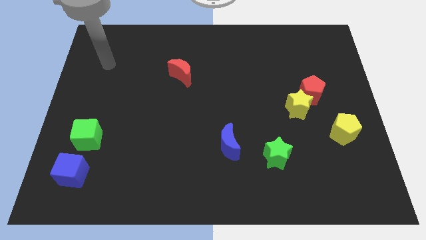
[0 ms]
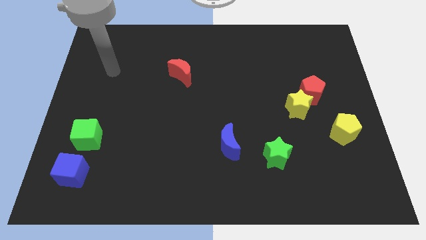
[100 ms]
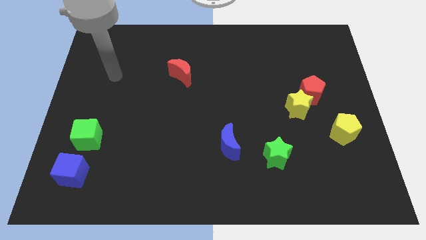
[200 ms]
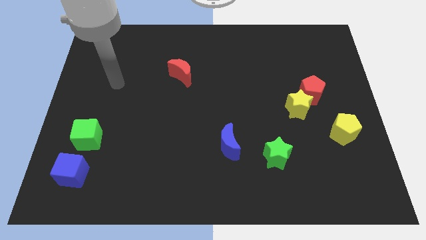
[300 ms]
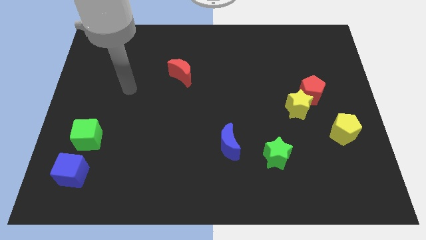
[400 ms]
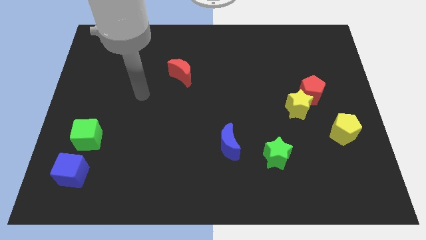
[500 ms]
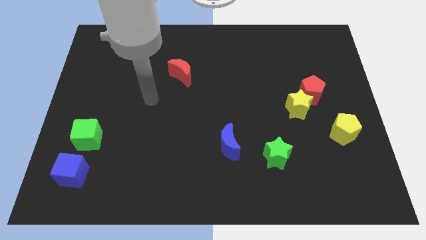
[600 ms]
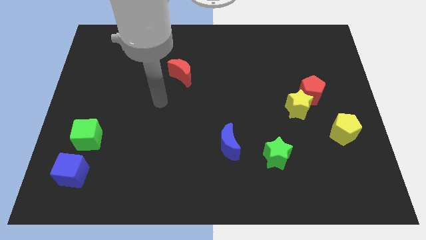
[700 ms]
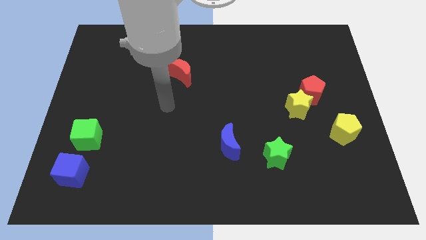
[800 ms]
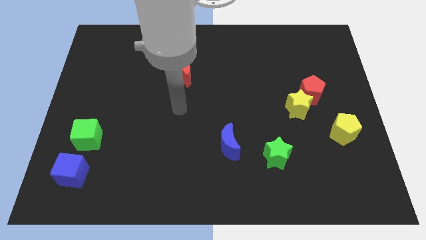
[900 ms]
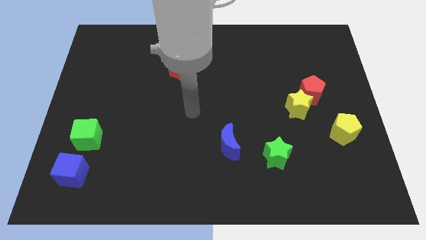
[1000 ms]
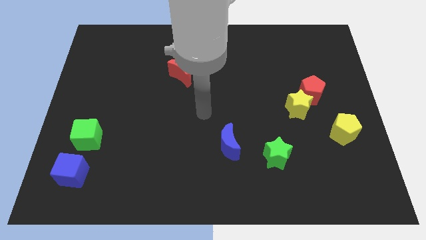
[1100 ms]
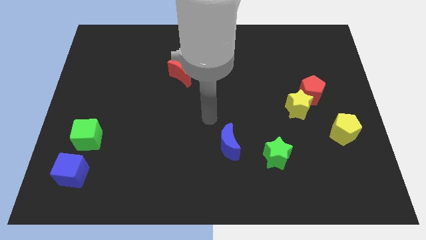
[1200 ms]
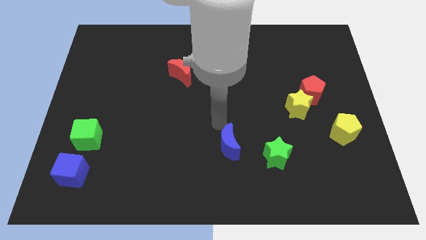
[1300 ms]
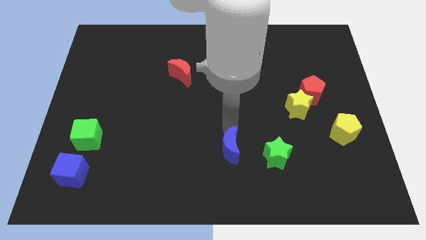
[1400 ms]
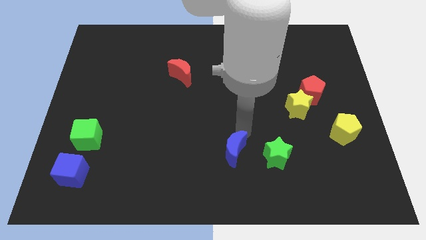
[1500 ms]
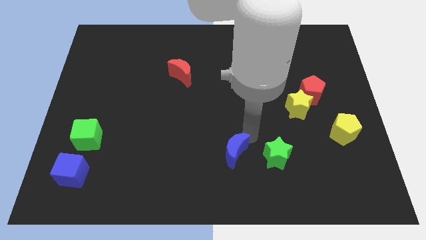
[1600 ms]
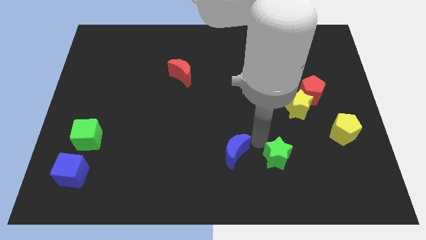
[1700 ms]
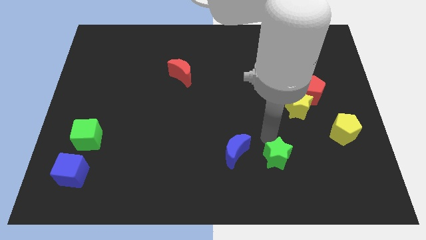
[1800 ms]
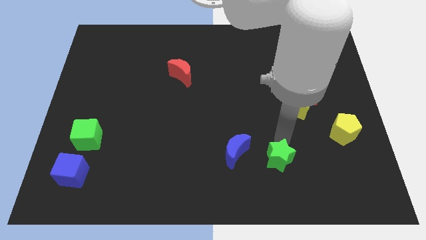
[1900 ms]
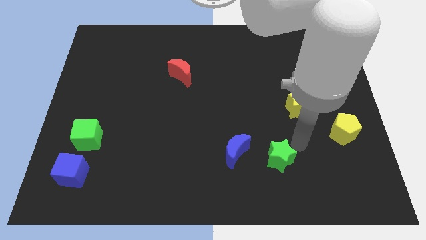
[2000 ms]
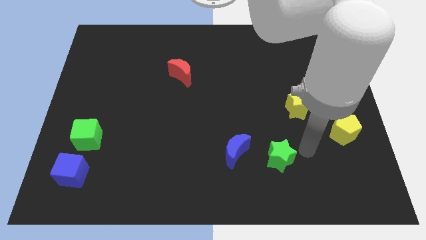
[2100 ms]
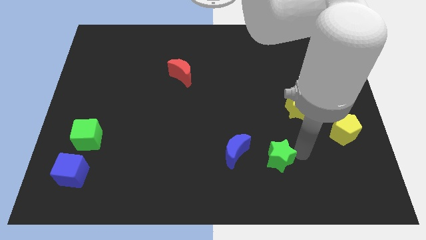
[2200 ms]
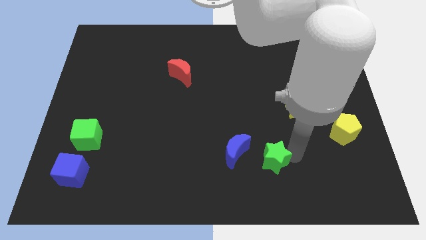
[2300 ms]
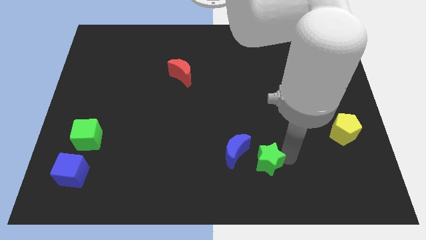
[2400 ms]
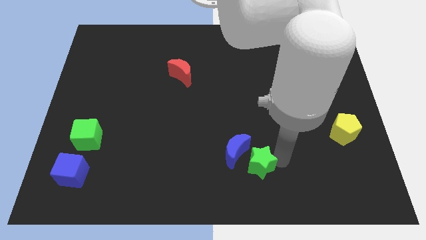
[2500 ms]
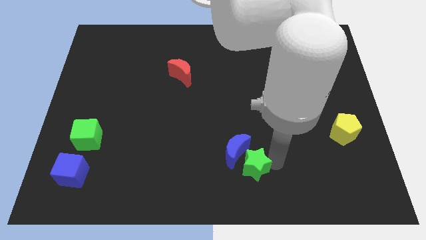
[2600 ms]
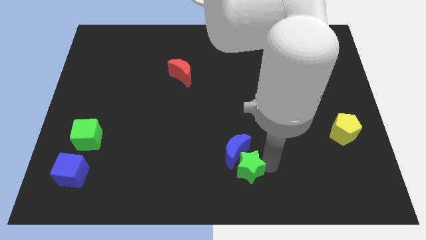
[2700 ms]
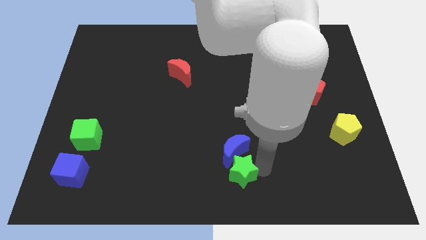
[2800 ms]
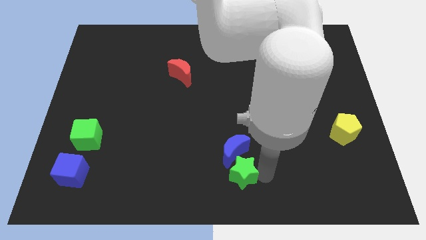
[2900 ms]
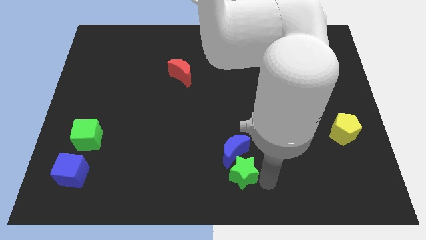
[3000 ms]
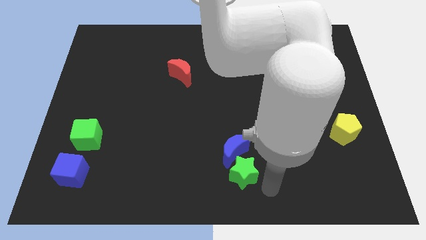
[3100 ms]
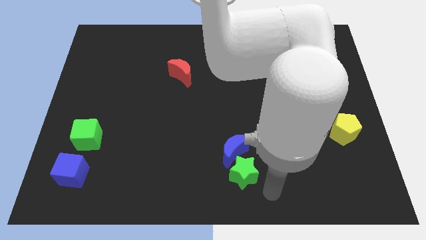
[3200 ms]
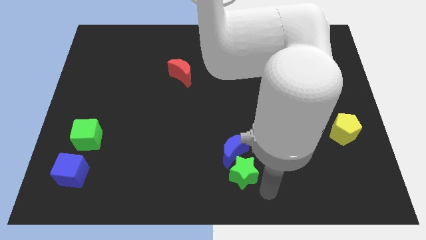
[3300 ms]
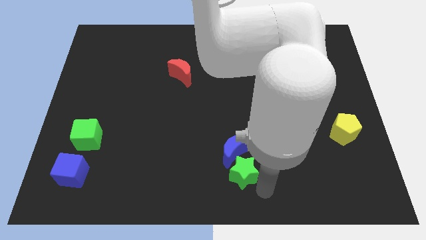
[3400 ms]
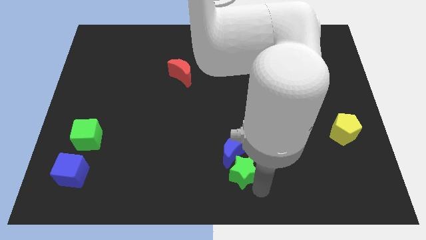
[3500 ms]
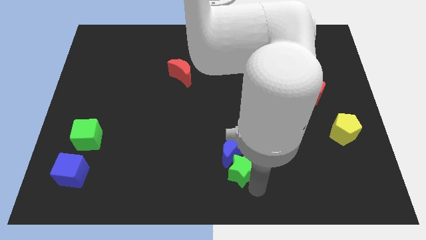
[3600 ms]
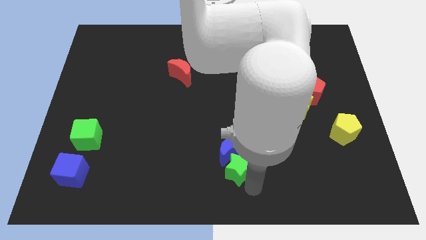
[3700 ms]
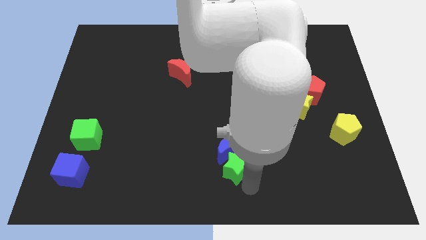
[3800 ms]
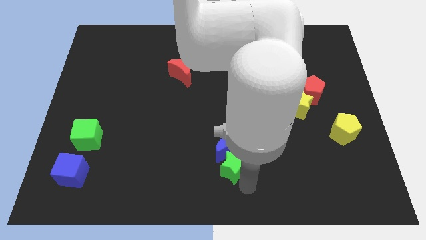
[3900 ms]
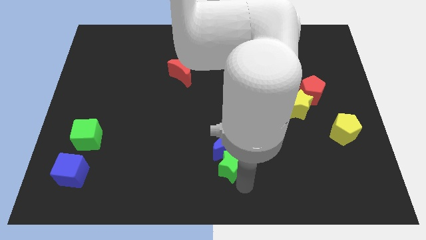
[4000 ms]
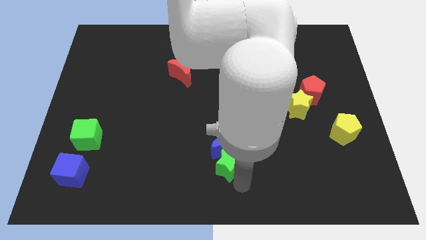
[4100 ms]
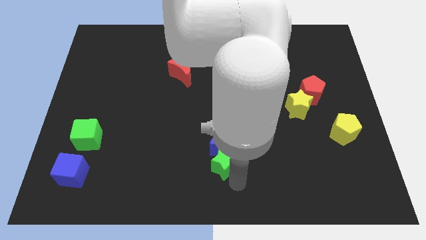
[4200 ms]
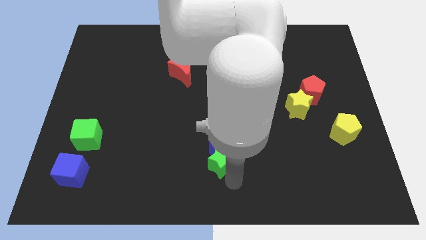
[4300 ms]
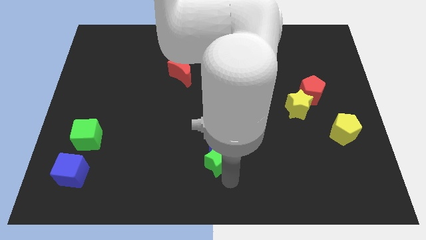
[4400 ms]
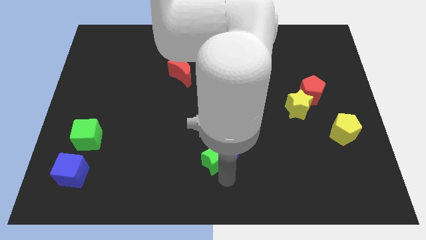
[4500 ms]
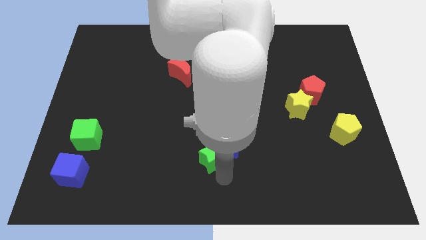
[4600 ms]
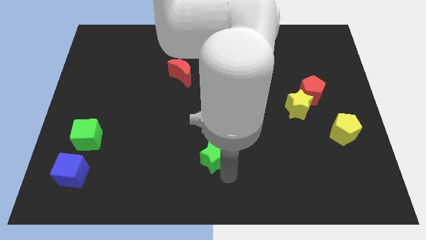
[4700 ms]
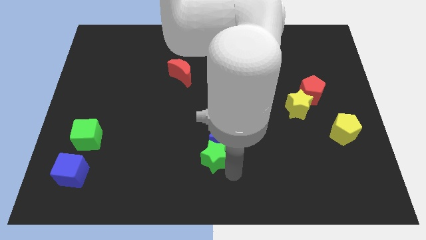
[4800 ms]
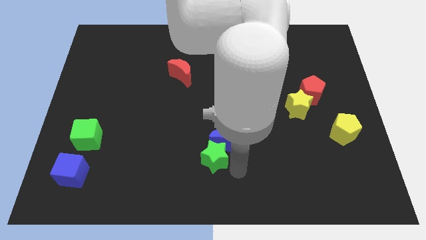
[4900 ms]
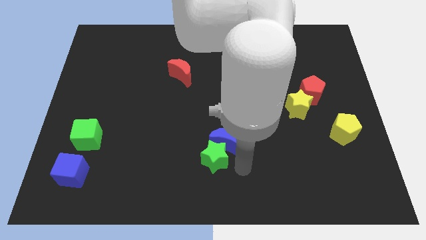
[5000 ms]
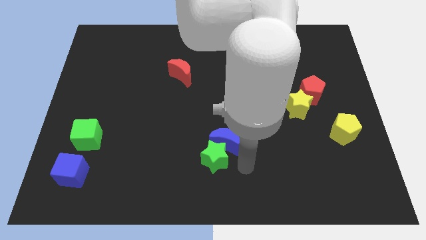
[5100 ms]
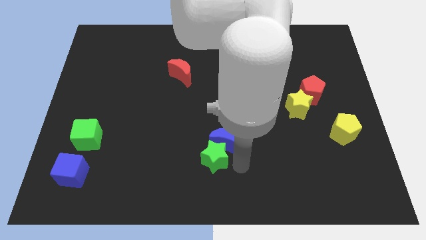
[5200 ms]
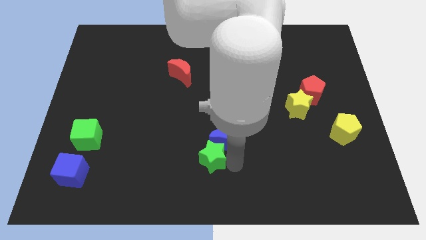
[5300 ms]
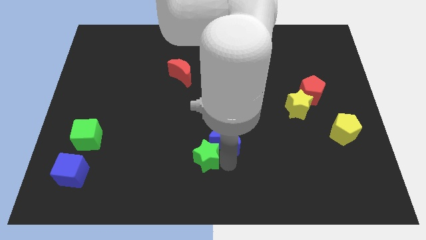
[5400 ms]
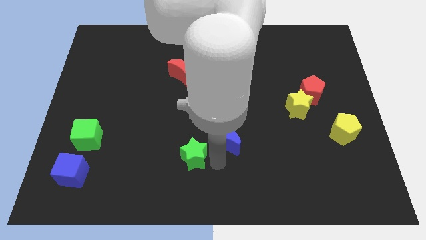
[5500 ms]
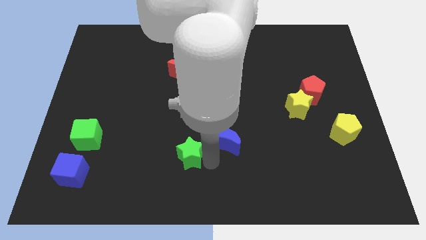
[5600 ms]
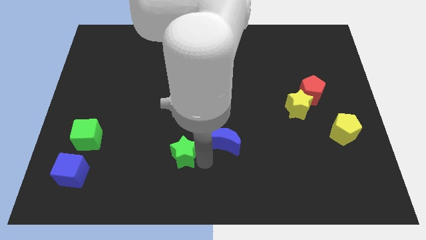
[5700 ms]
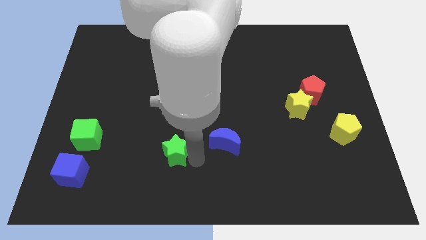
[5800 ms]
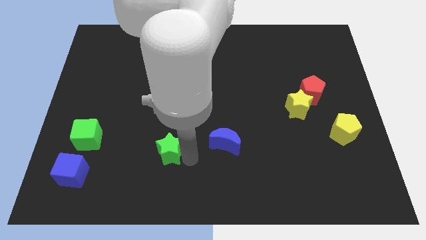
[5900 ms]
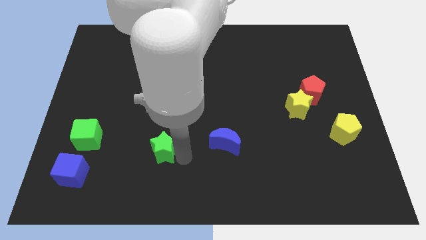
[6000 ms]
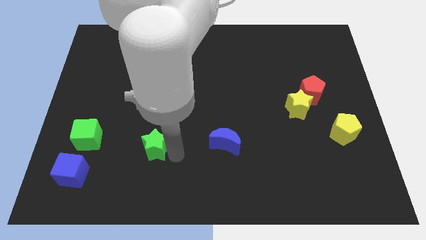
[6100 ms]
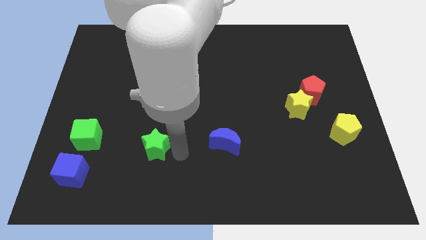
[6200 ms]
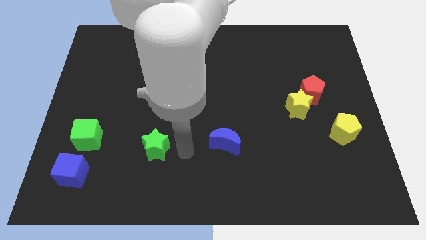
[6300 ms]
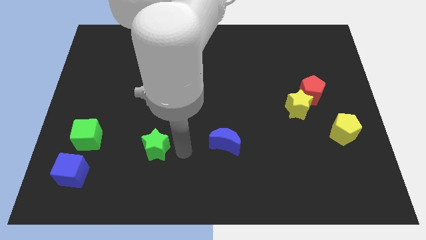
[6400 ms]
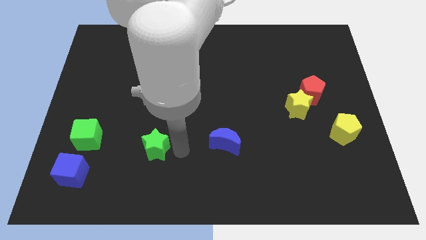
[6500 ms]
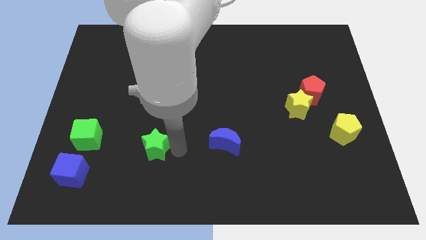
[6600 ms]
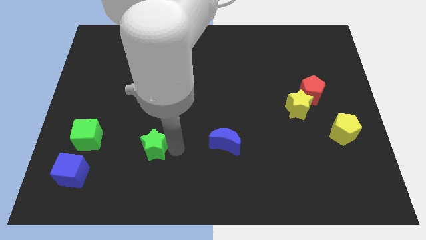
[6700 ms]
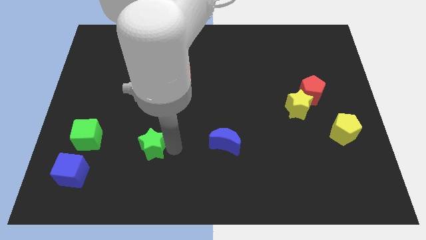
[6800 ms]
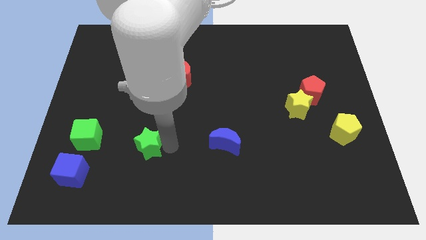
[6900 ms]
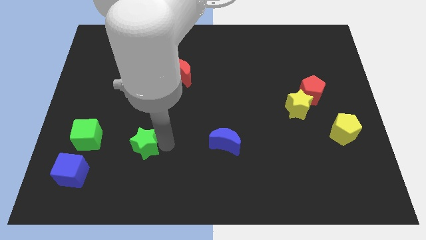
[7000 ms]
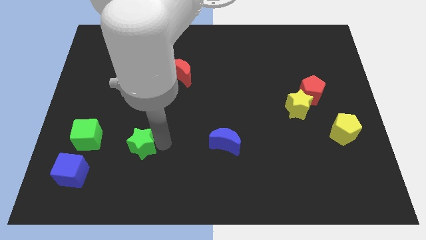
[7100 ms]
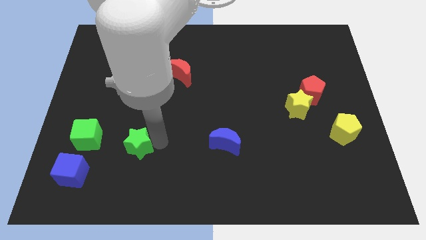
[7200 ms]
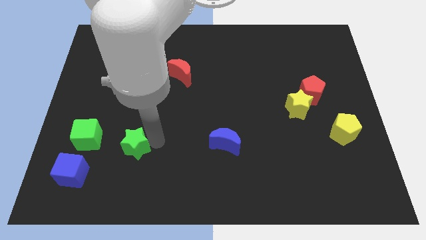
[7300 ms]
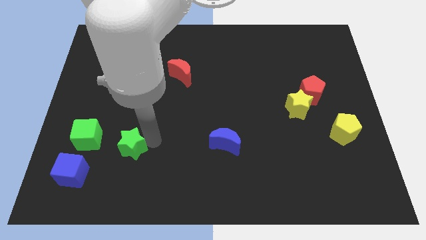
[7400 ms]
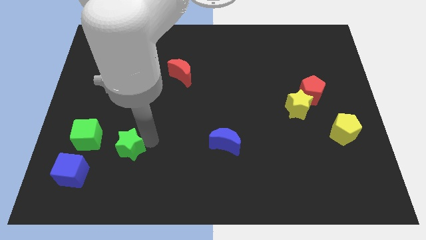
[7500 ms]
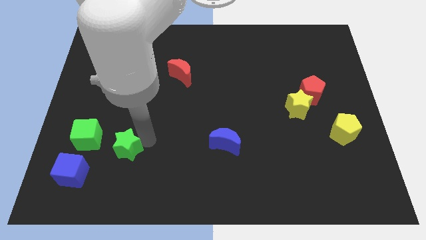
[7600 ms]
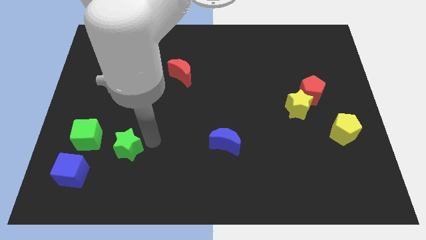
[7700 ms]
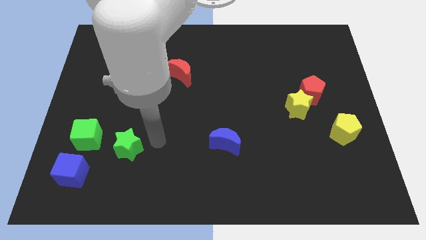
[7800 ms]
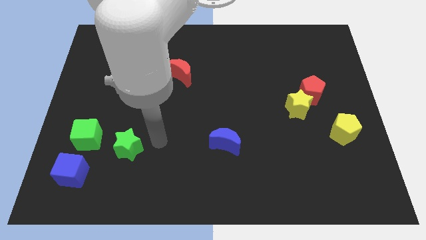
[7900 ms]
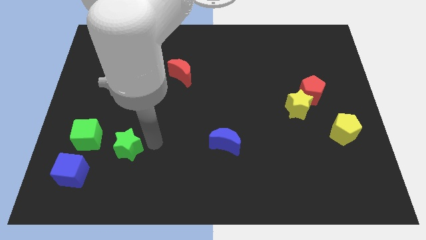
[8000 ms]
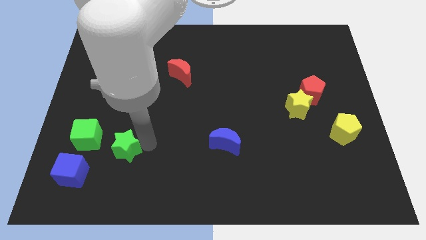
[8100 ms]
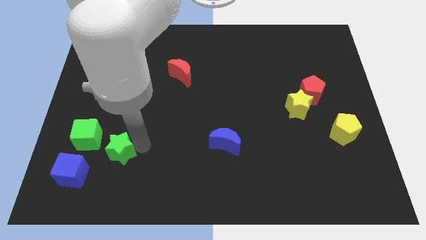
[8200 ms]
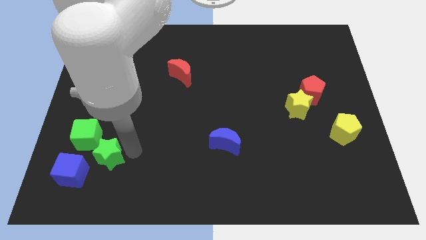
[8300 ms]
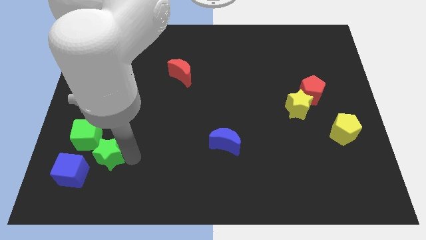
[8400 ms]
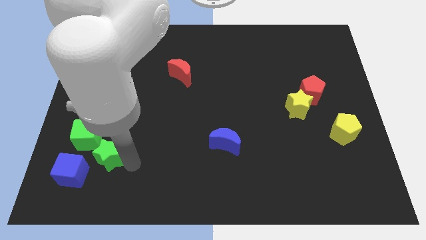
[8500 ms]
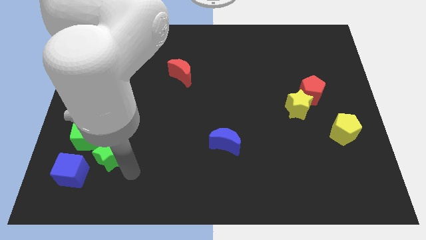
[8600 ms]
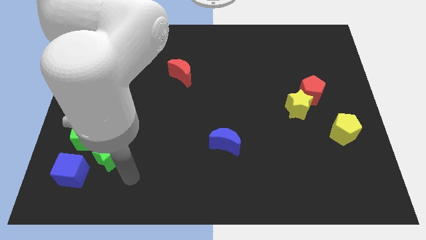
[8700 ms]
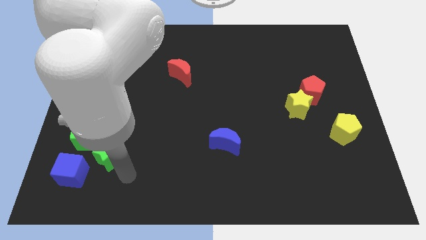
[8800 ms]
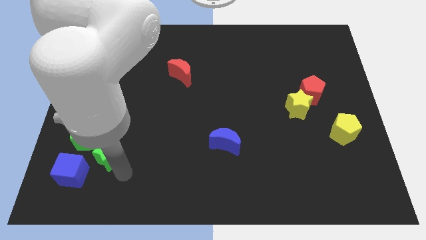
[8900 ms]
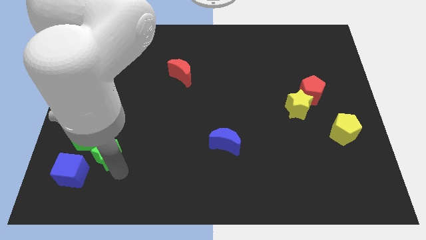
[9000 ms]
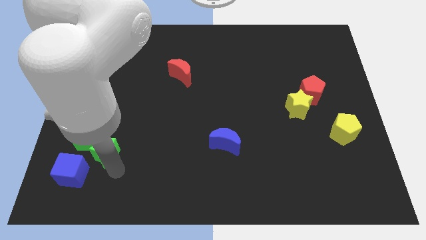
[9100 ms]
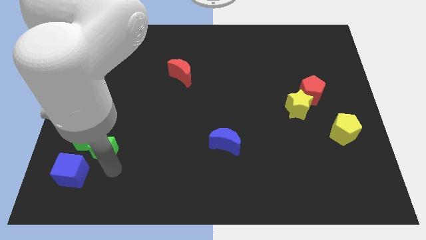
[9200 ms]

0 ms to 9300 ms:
push the green star to the green cube
